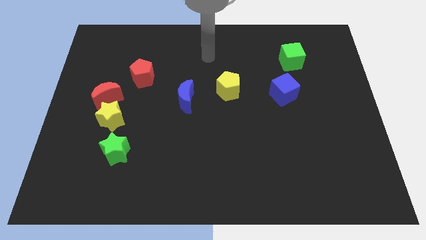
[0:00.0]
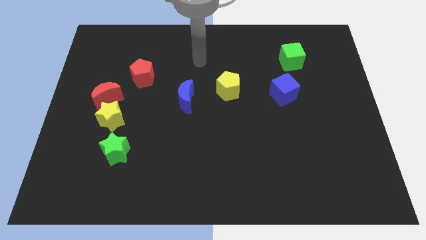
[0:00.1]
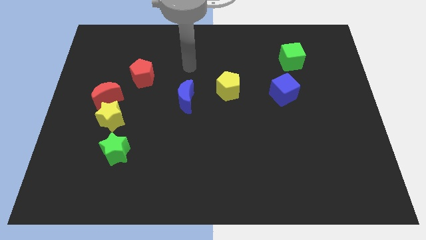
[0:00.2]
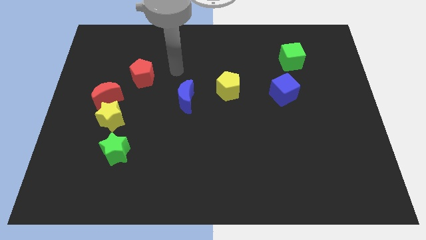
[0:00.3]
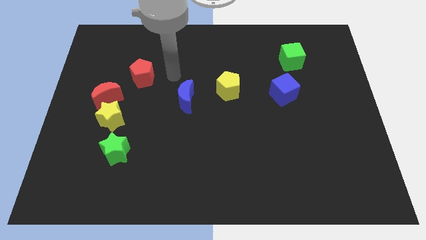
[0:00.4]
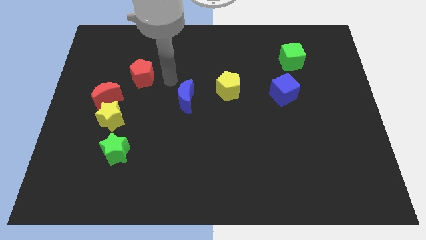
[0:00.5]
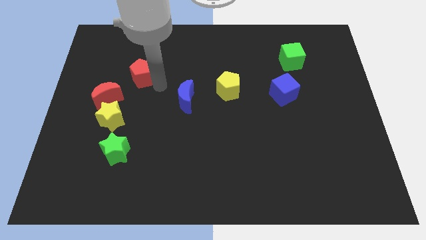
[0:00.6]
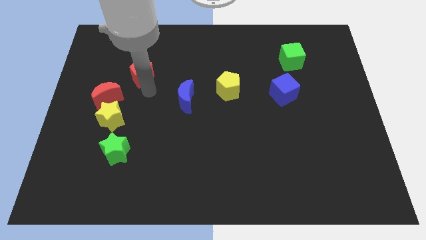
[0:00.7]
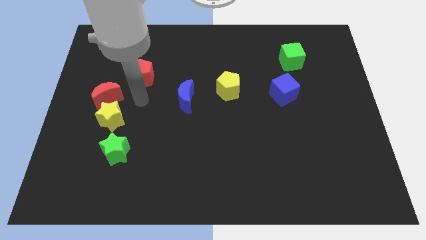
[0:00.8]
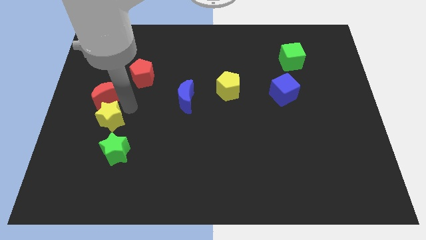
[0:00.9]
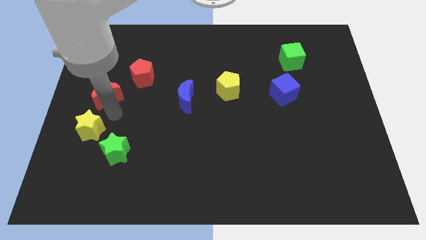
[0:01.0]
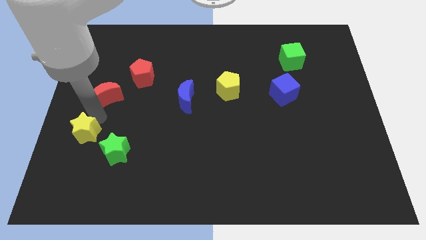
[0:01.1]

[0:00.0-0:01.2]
move the red moon away from the yellow star

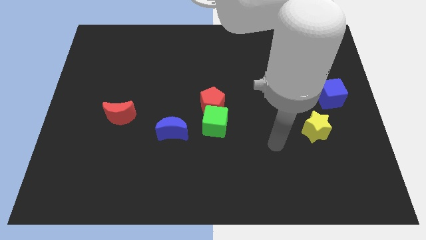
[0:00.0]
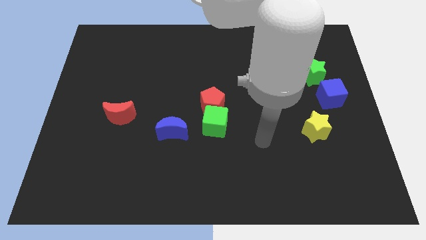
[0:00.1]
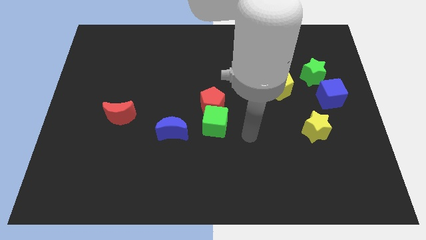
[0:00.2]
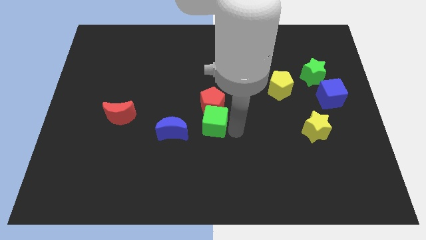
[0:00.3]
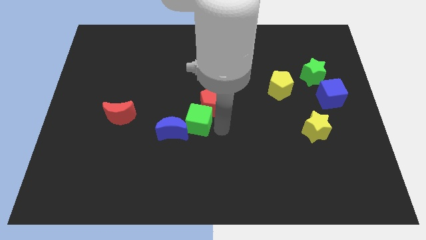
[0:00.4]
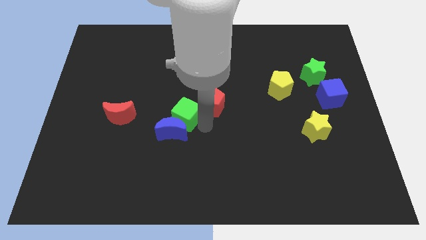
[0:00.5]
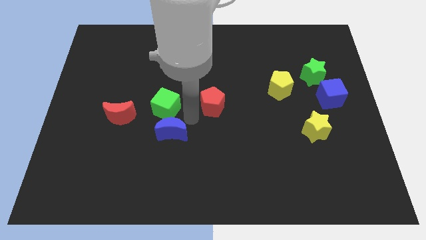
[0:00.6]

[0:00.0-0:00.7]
pull the red pentagon apart from the green cube

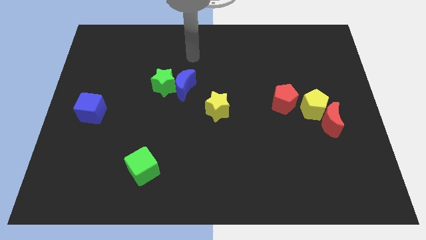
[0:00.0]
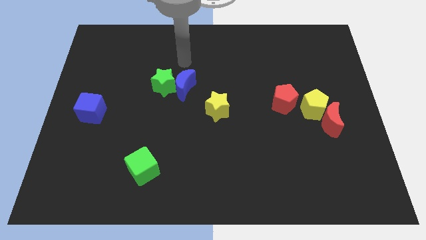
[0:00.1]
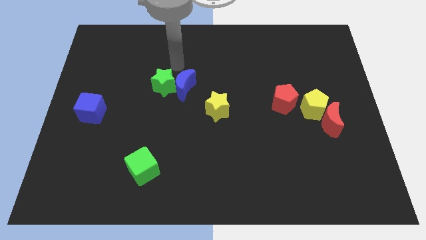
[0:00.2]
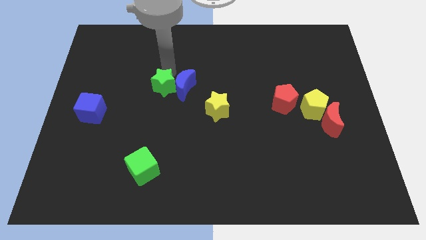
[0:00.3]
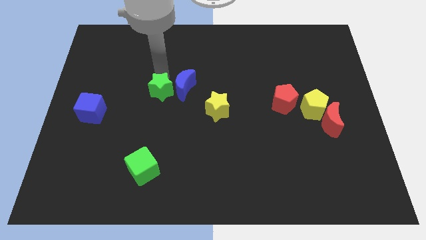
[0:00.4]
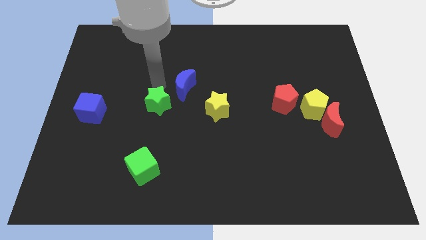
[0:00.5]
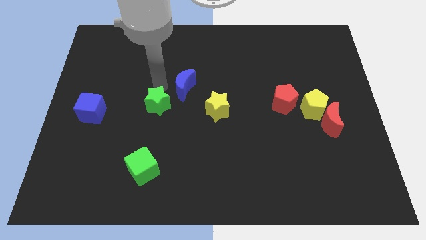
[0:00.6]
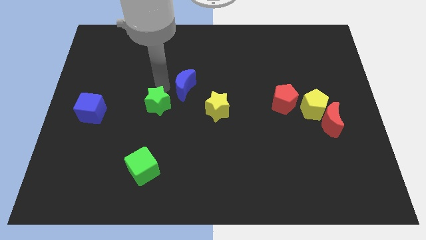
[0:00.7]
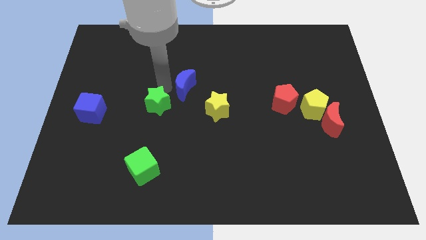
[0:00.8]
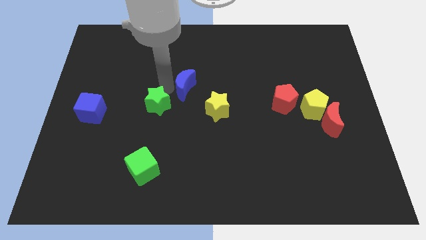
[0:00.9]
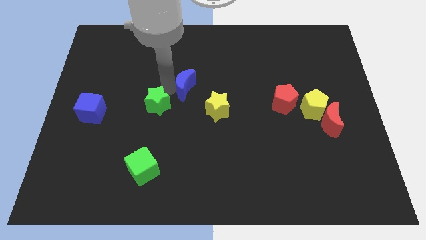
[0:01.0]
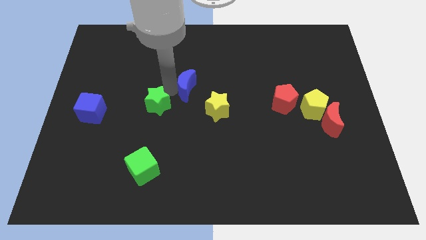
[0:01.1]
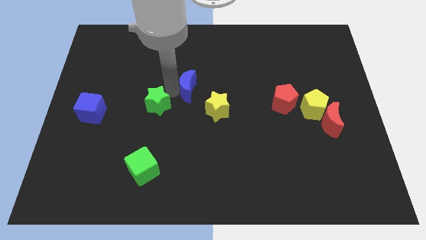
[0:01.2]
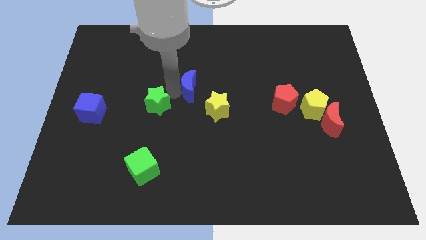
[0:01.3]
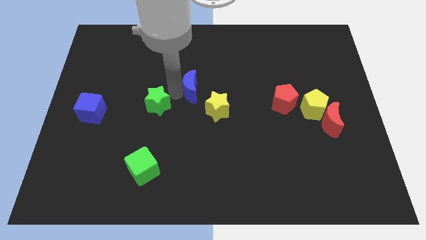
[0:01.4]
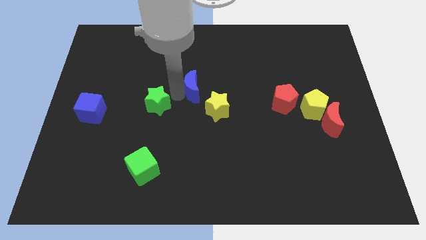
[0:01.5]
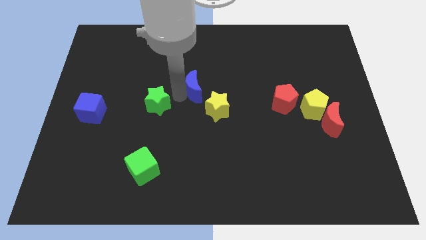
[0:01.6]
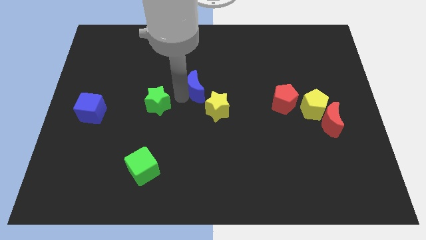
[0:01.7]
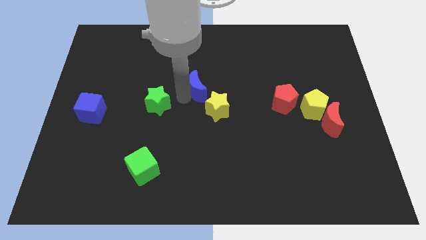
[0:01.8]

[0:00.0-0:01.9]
pull the blue moon apart from the green star

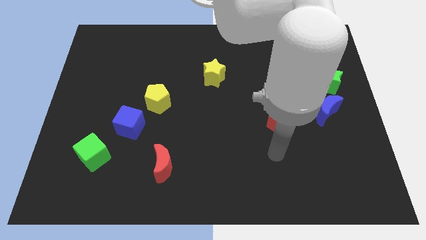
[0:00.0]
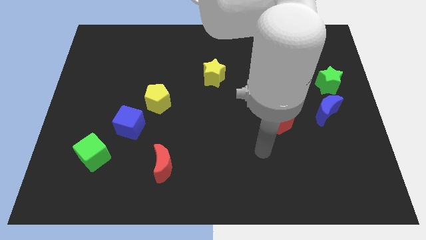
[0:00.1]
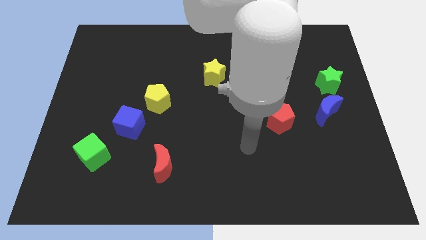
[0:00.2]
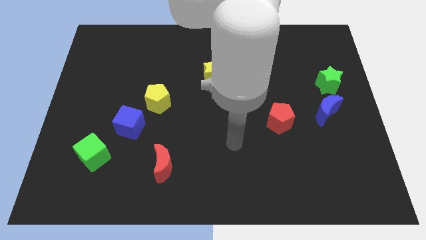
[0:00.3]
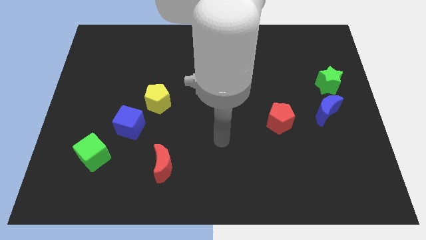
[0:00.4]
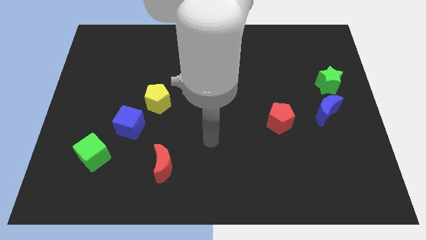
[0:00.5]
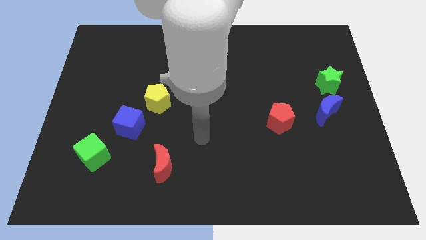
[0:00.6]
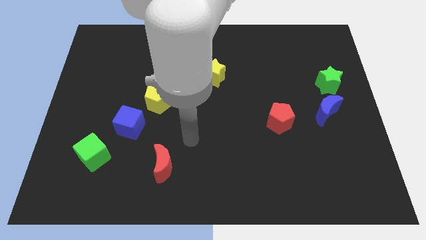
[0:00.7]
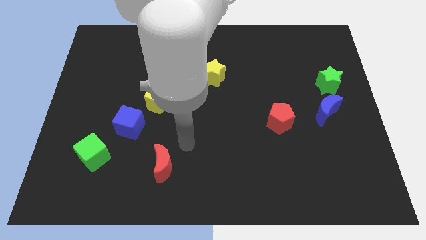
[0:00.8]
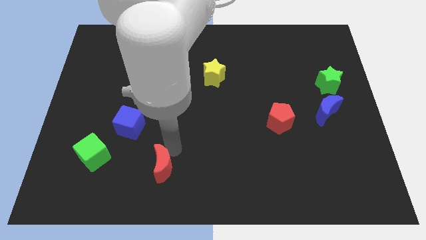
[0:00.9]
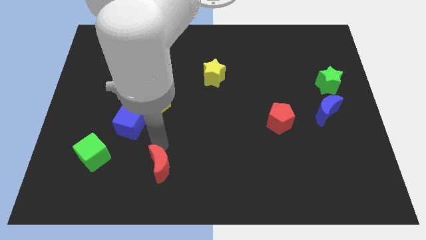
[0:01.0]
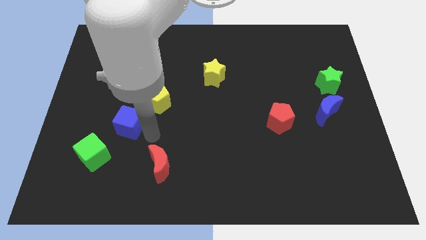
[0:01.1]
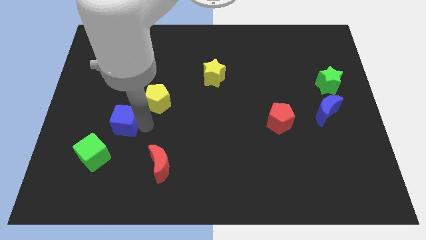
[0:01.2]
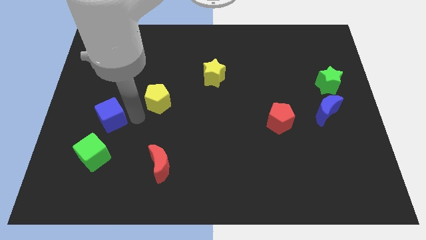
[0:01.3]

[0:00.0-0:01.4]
pull the yellow pentagon apart from the blue cube

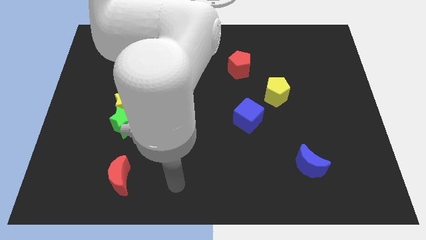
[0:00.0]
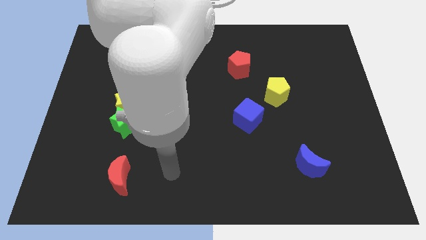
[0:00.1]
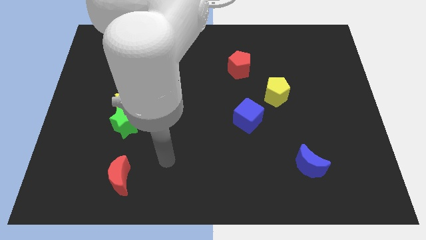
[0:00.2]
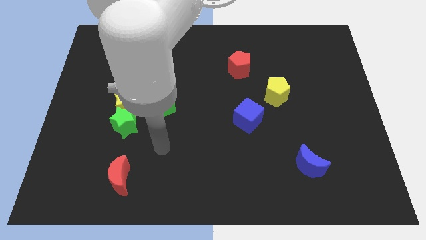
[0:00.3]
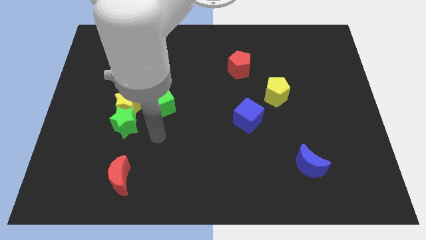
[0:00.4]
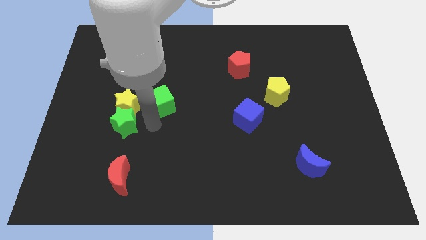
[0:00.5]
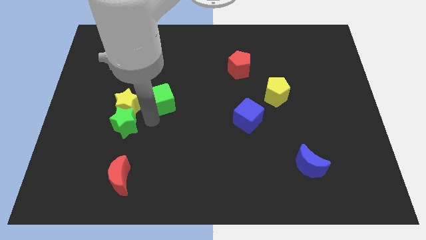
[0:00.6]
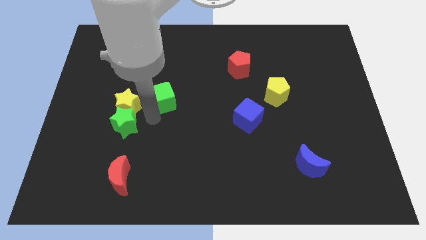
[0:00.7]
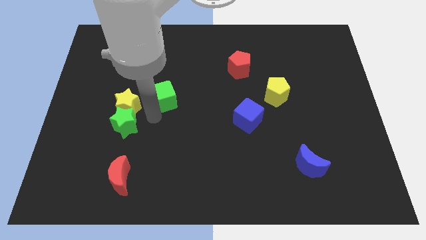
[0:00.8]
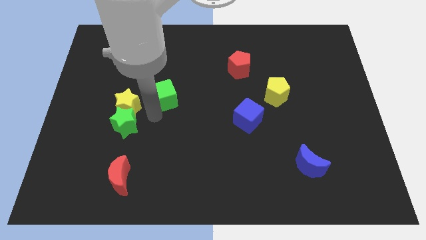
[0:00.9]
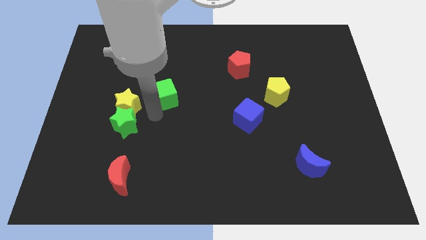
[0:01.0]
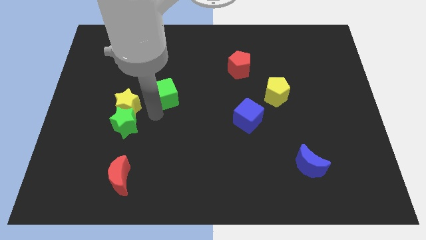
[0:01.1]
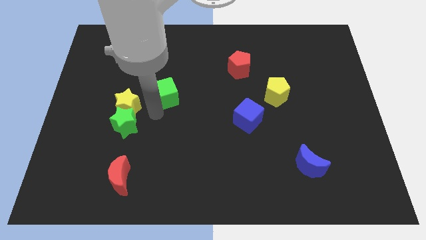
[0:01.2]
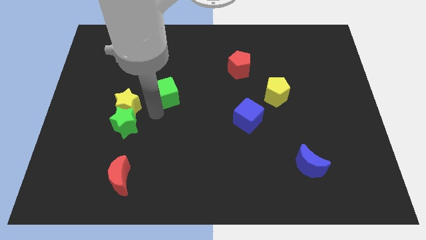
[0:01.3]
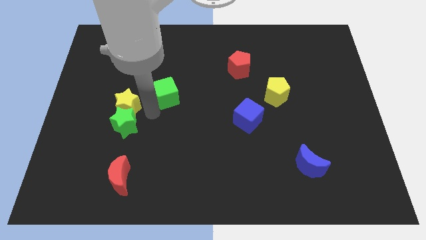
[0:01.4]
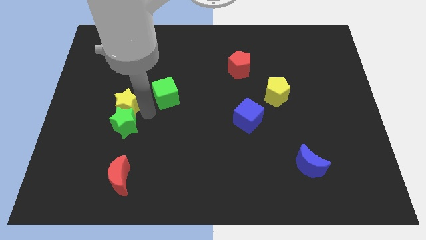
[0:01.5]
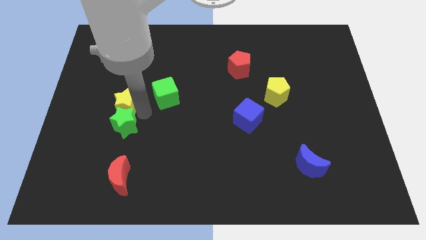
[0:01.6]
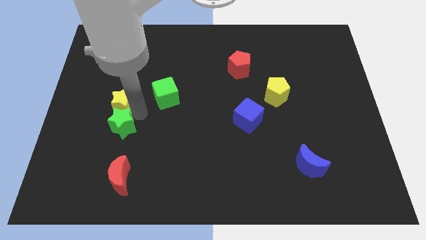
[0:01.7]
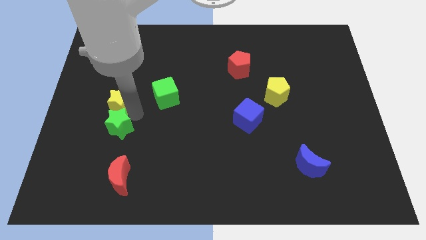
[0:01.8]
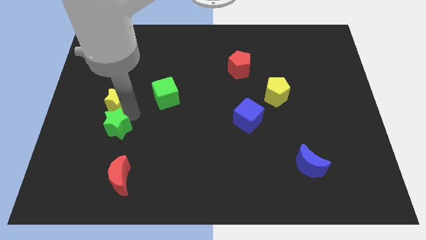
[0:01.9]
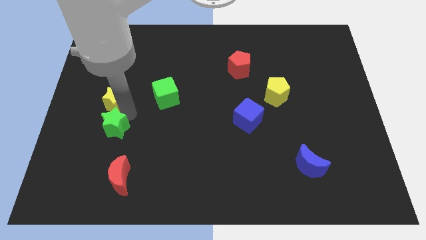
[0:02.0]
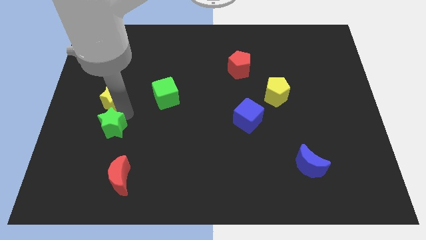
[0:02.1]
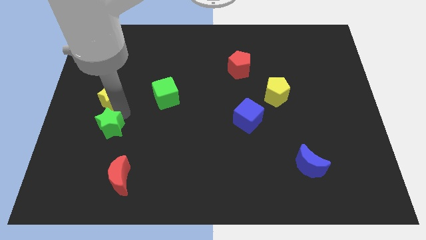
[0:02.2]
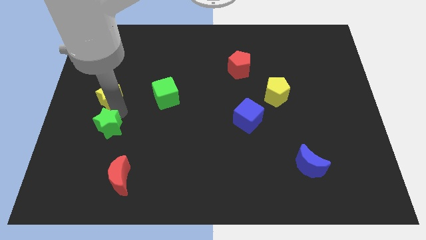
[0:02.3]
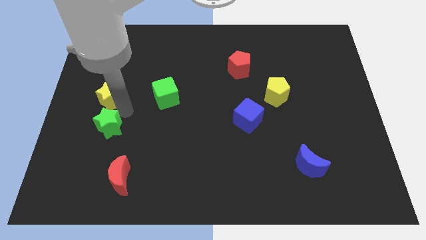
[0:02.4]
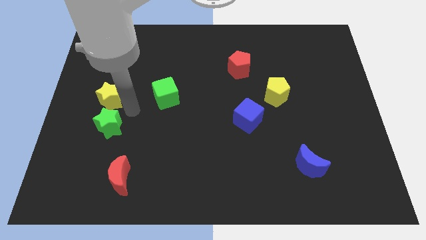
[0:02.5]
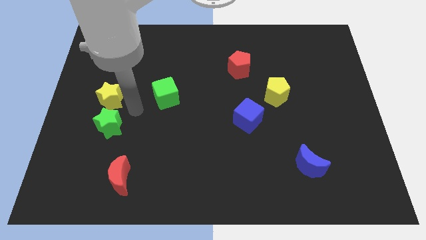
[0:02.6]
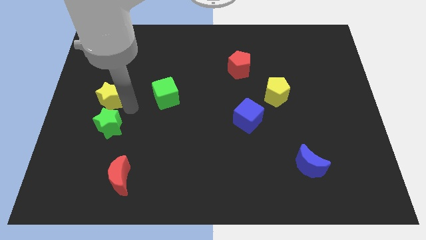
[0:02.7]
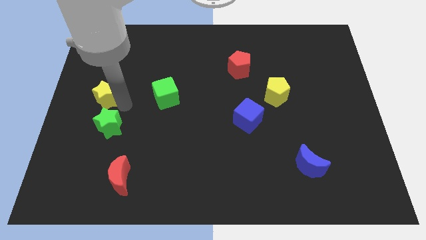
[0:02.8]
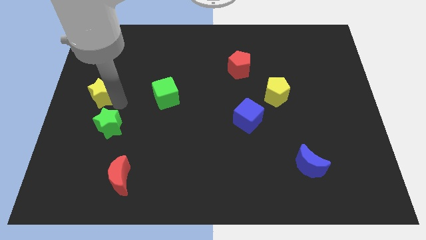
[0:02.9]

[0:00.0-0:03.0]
pull the yellow star apart from the green star and green cube

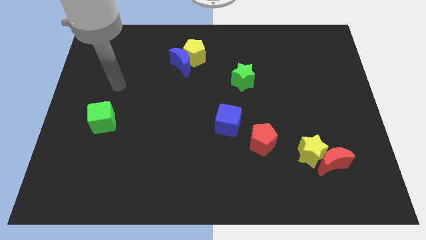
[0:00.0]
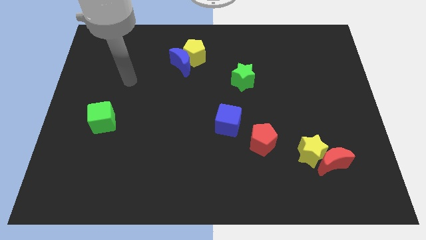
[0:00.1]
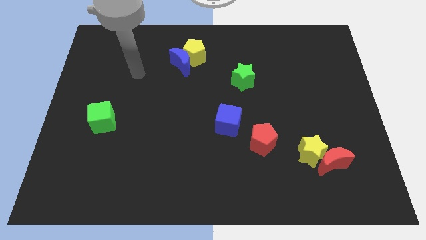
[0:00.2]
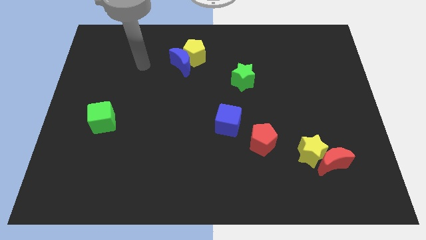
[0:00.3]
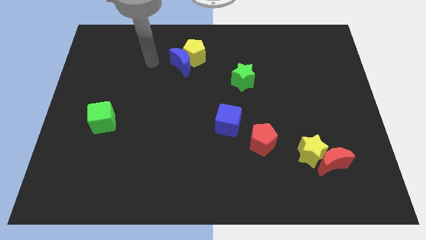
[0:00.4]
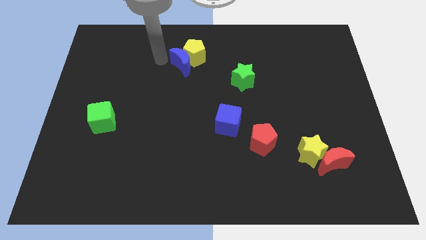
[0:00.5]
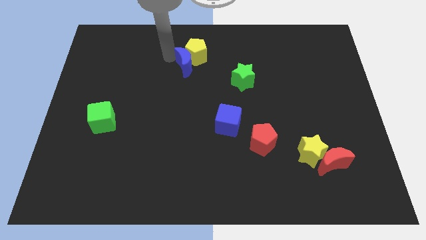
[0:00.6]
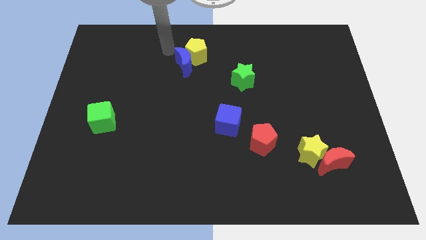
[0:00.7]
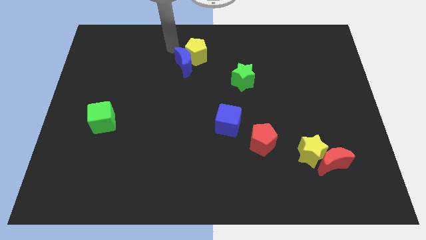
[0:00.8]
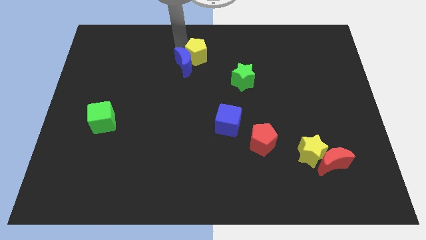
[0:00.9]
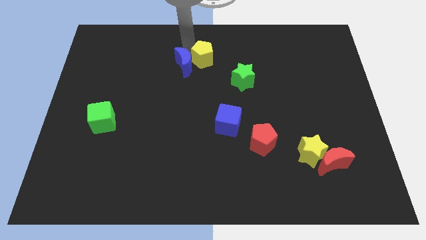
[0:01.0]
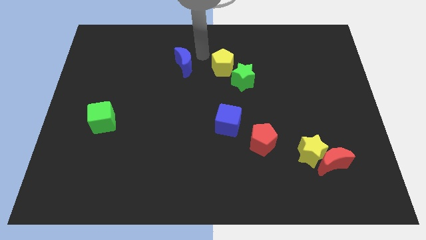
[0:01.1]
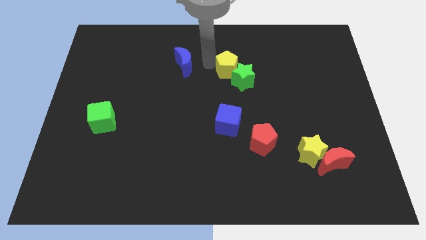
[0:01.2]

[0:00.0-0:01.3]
move the blue moon away from the yellow pentagon
